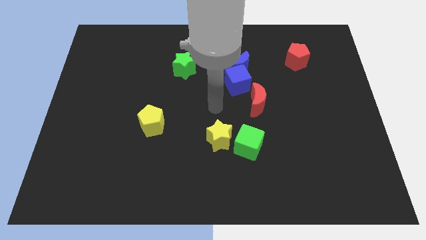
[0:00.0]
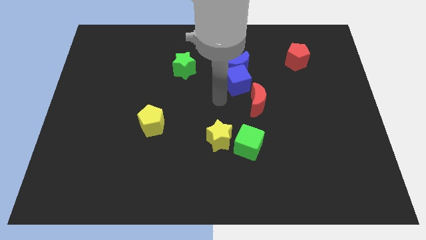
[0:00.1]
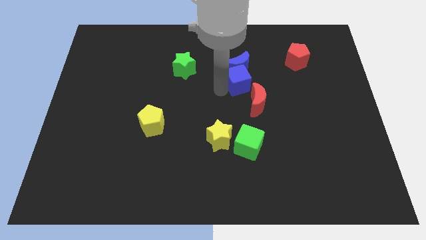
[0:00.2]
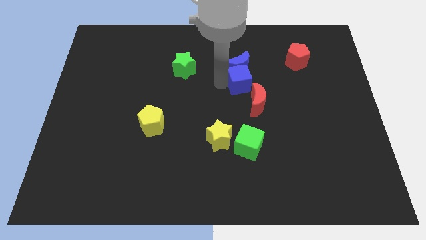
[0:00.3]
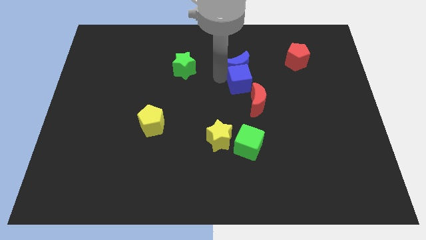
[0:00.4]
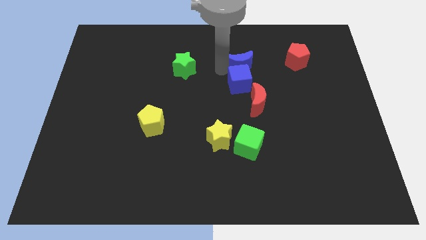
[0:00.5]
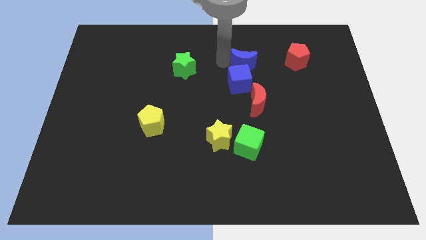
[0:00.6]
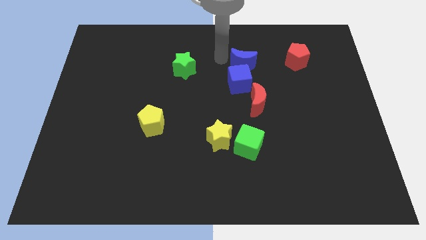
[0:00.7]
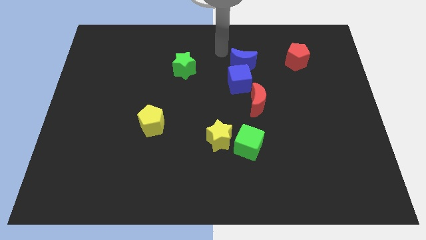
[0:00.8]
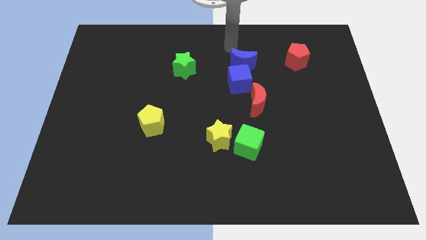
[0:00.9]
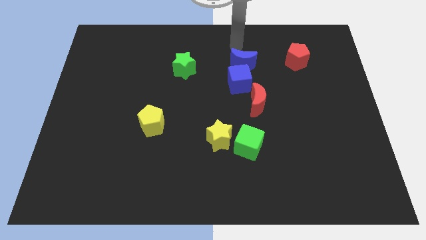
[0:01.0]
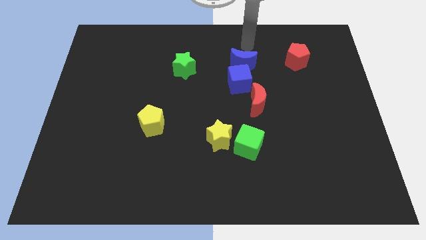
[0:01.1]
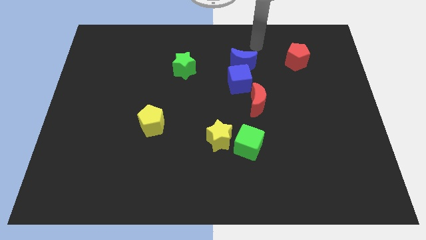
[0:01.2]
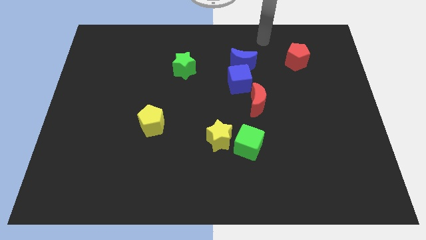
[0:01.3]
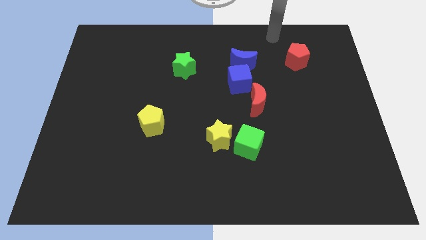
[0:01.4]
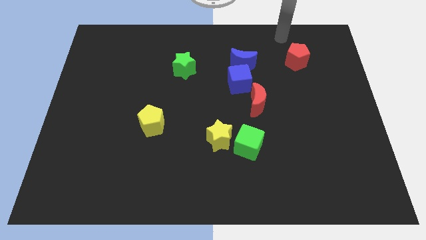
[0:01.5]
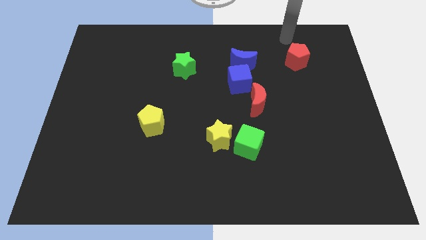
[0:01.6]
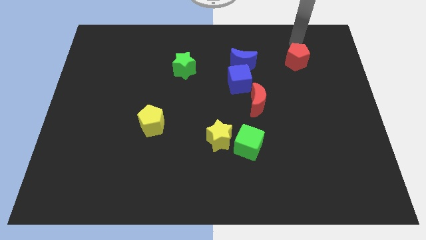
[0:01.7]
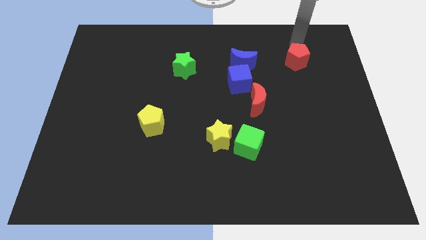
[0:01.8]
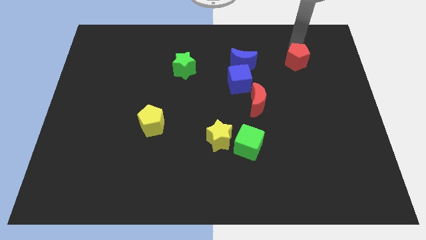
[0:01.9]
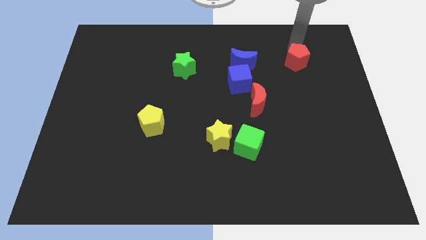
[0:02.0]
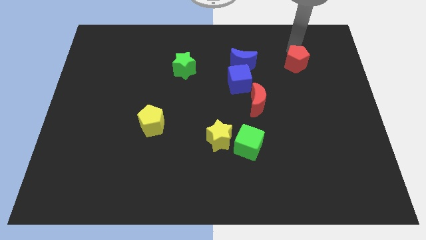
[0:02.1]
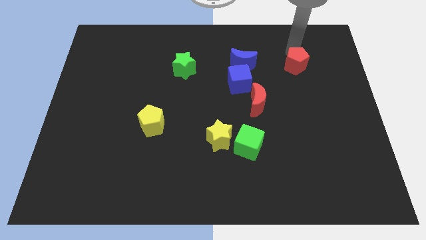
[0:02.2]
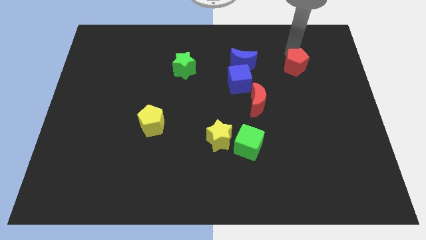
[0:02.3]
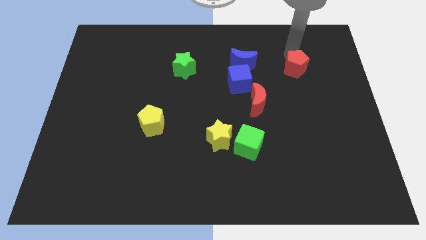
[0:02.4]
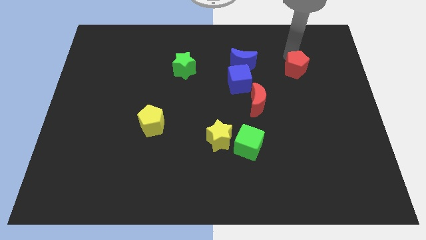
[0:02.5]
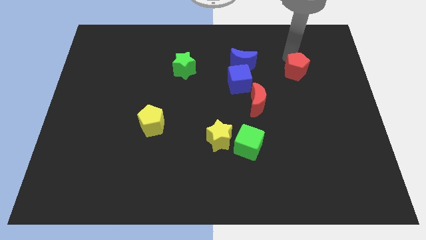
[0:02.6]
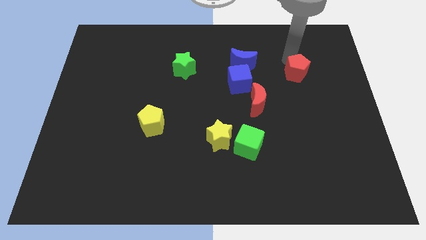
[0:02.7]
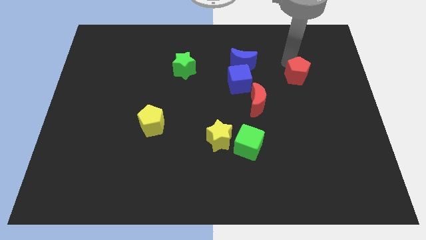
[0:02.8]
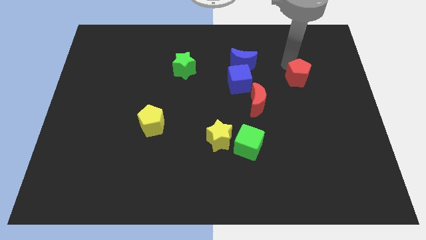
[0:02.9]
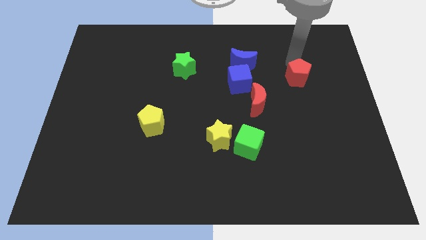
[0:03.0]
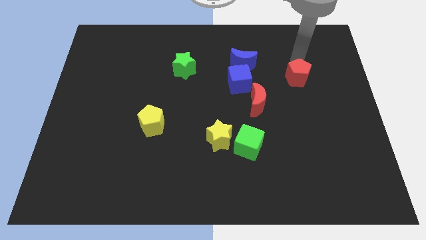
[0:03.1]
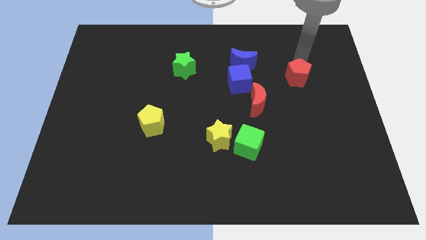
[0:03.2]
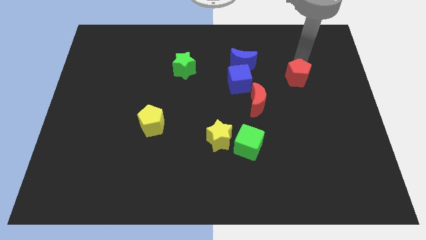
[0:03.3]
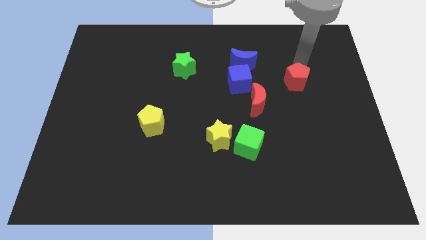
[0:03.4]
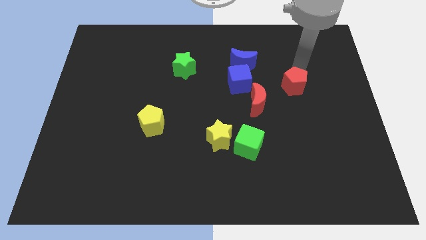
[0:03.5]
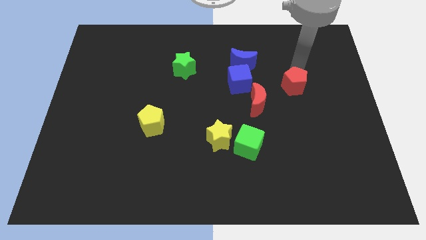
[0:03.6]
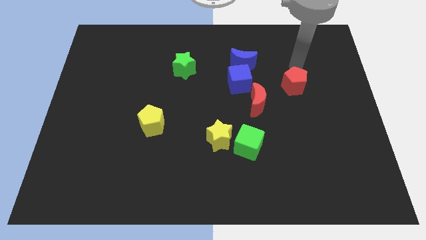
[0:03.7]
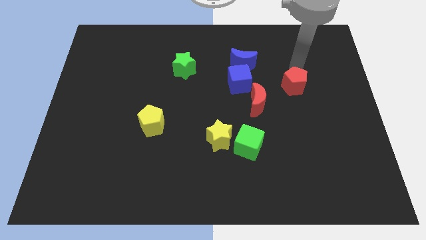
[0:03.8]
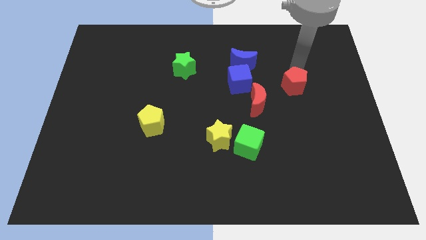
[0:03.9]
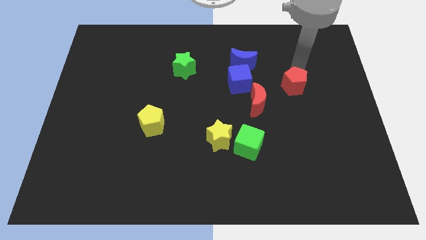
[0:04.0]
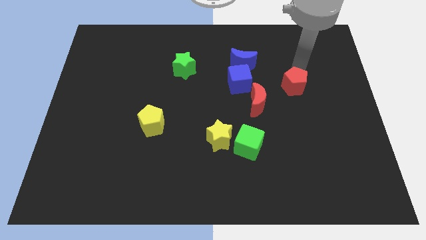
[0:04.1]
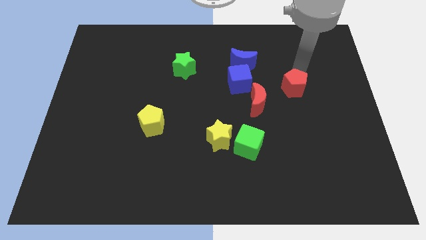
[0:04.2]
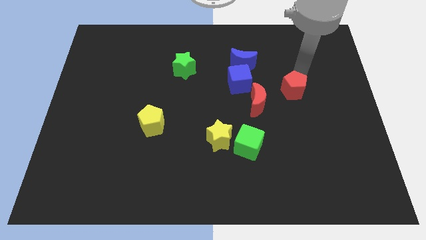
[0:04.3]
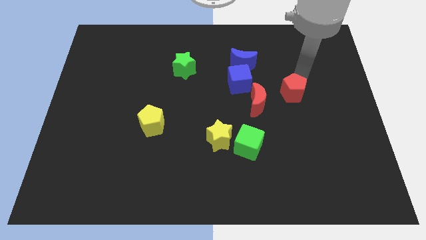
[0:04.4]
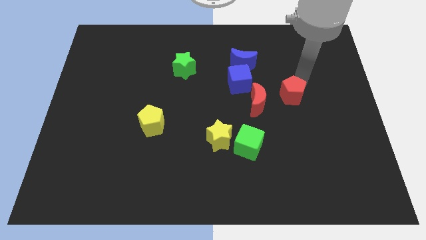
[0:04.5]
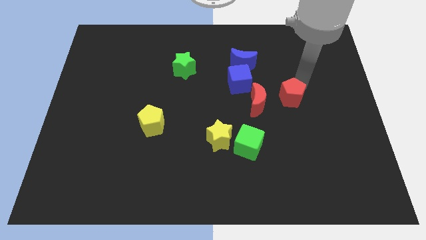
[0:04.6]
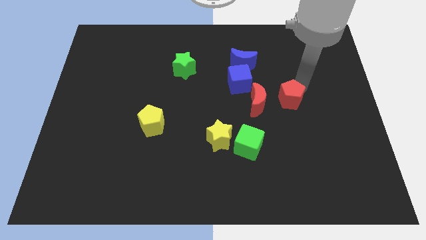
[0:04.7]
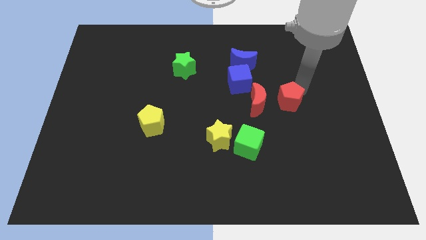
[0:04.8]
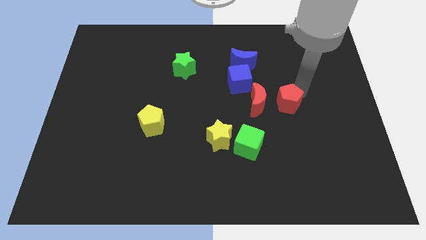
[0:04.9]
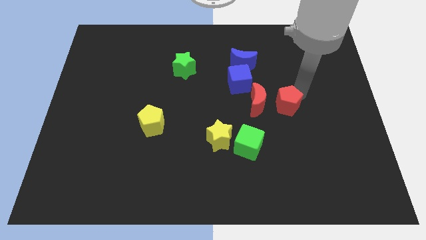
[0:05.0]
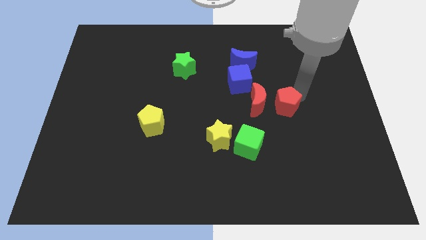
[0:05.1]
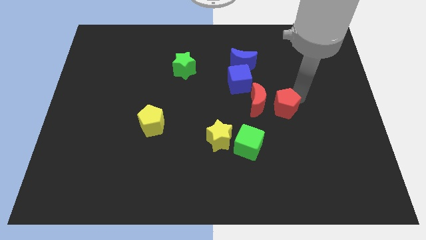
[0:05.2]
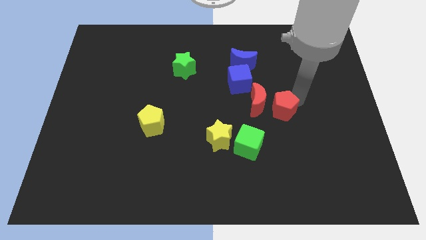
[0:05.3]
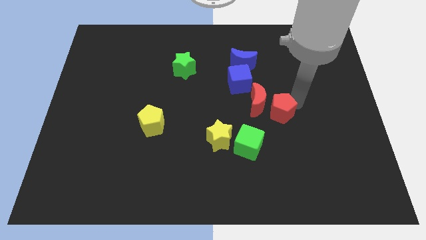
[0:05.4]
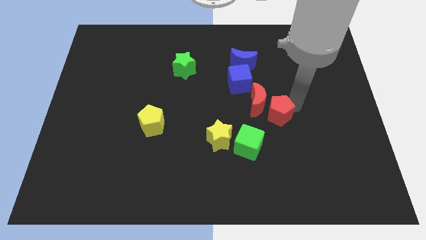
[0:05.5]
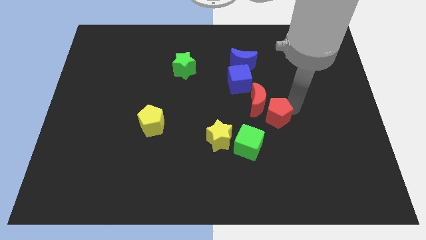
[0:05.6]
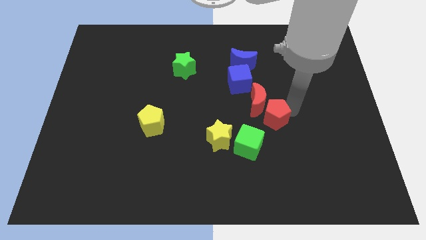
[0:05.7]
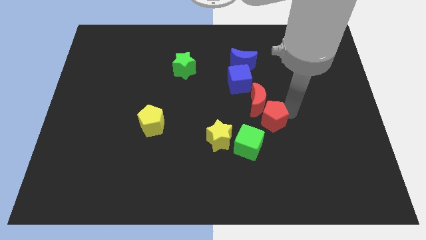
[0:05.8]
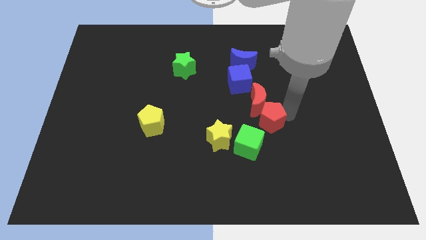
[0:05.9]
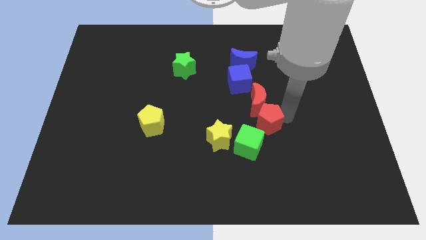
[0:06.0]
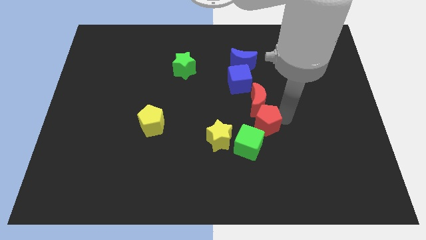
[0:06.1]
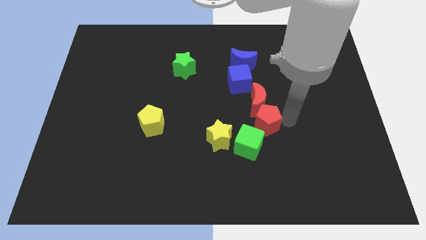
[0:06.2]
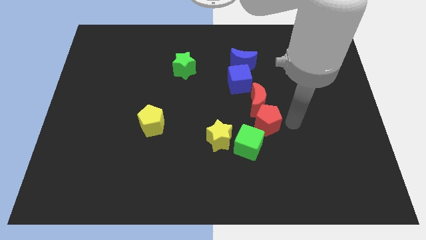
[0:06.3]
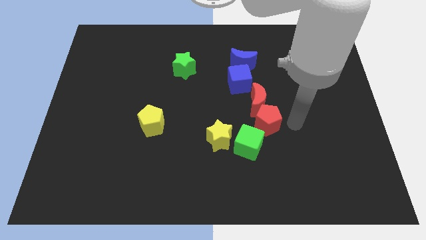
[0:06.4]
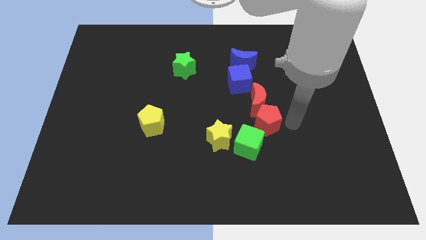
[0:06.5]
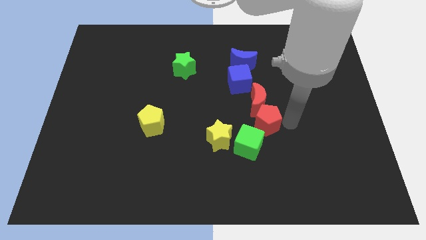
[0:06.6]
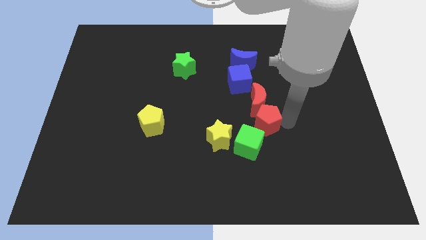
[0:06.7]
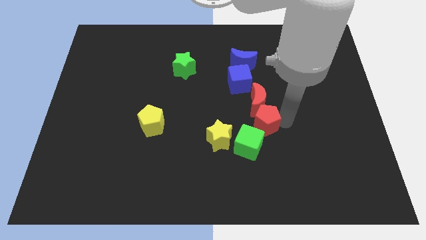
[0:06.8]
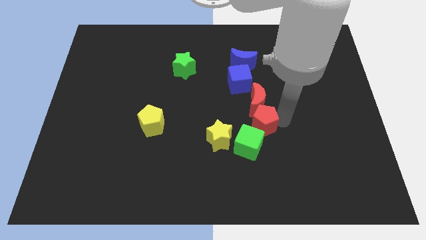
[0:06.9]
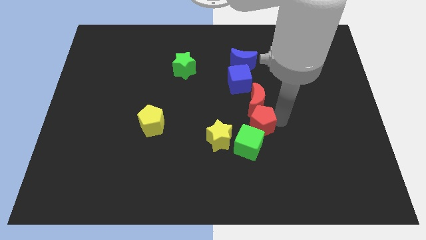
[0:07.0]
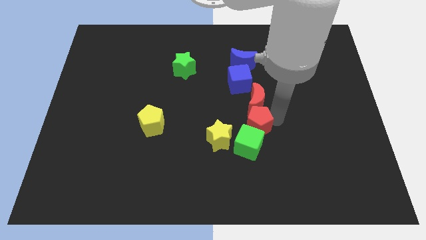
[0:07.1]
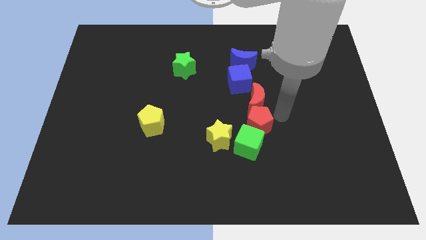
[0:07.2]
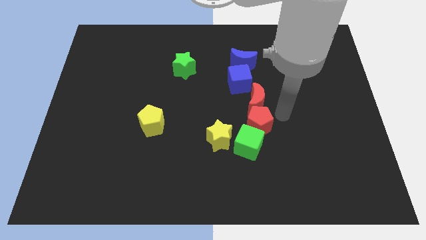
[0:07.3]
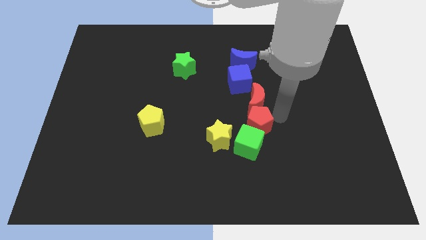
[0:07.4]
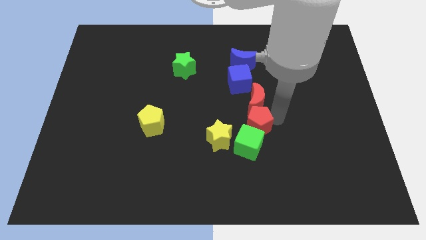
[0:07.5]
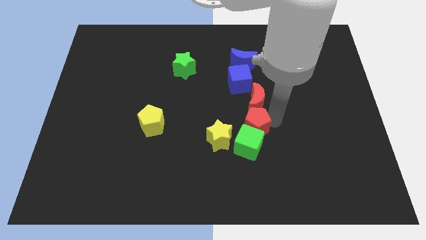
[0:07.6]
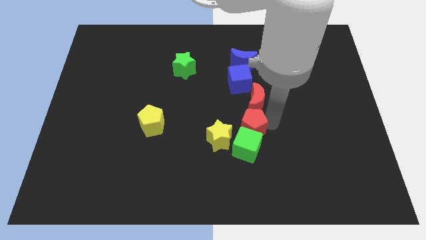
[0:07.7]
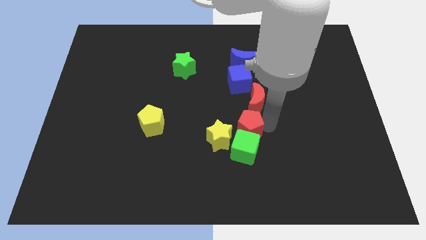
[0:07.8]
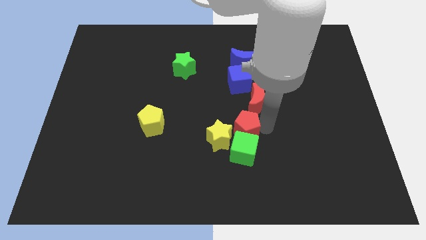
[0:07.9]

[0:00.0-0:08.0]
put the red pentagon next to the yellow star
